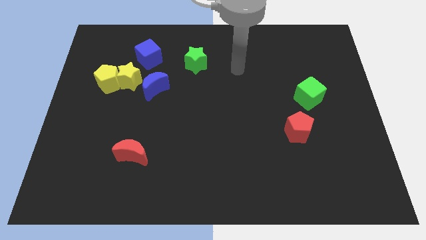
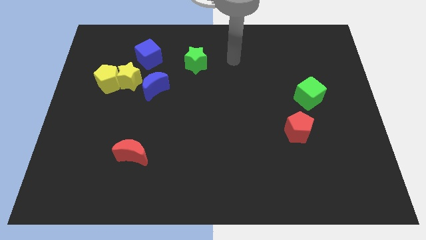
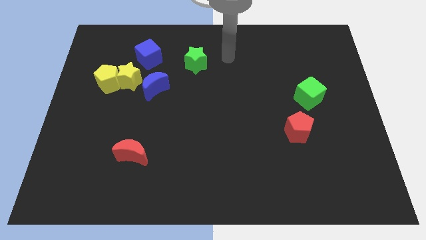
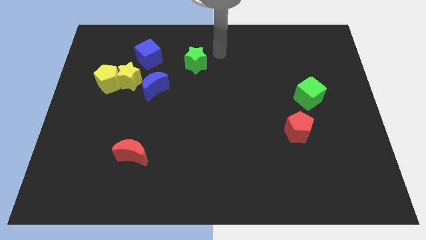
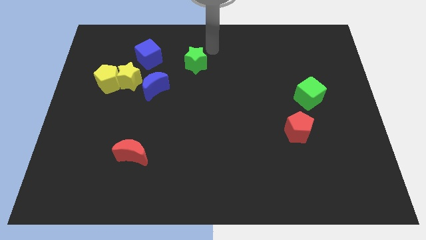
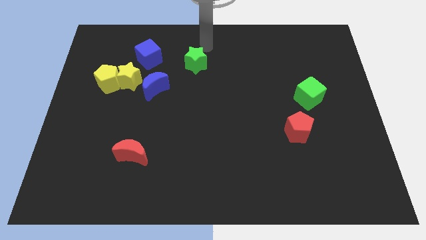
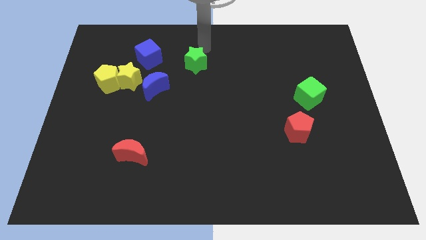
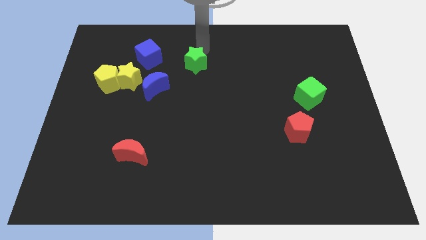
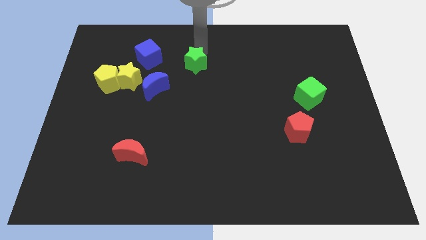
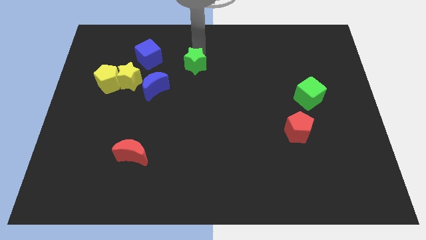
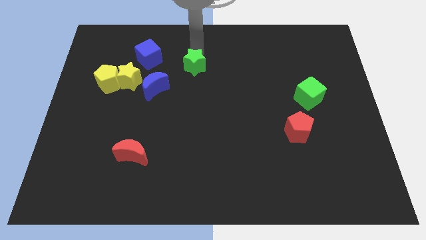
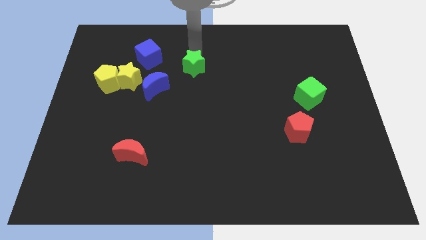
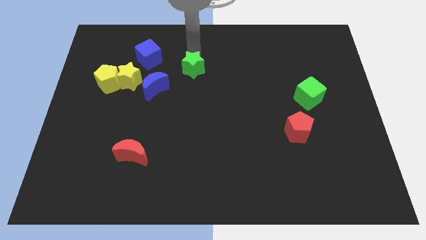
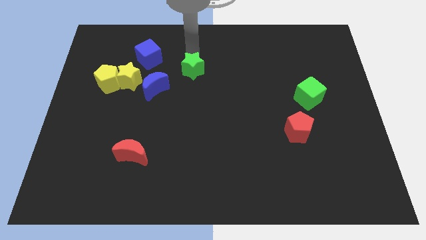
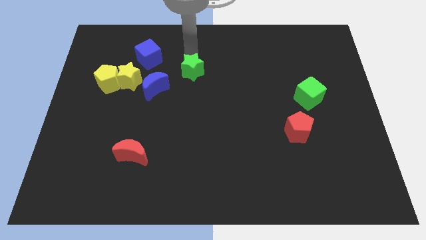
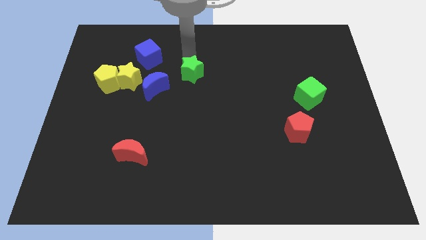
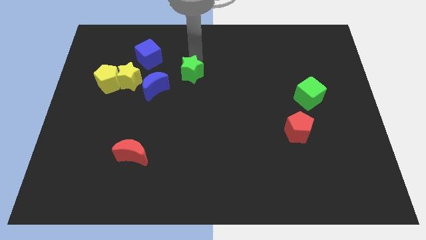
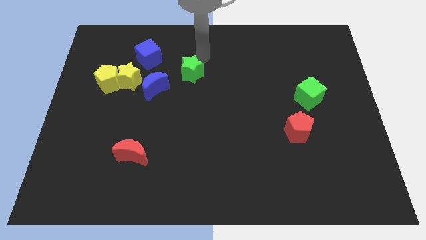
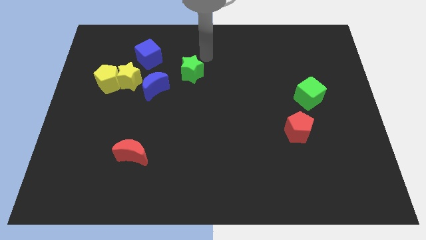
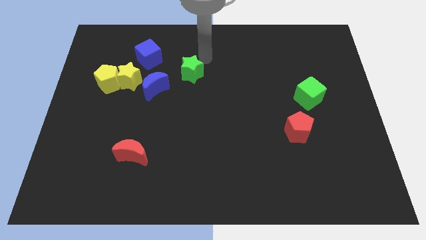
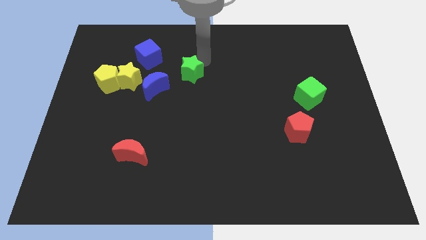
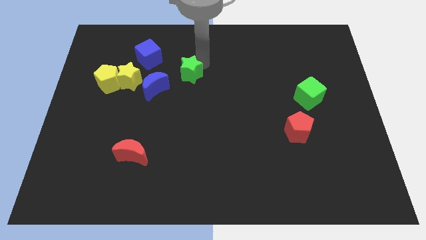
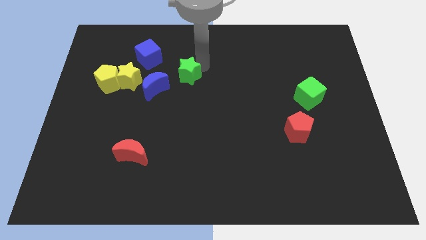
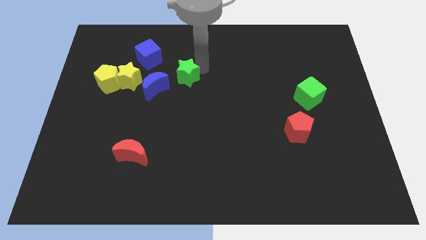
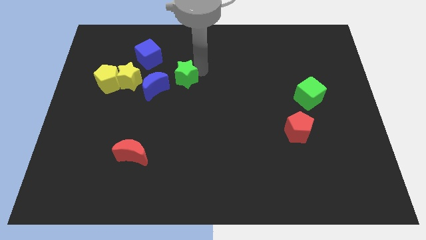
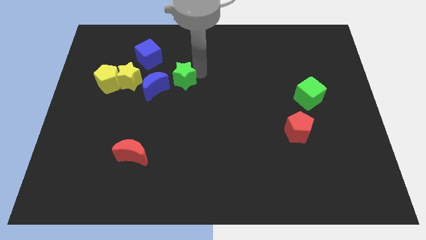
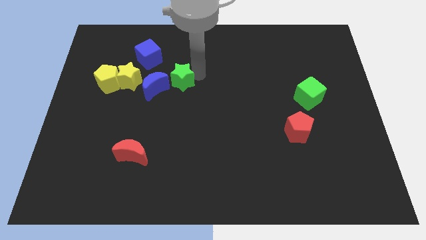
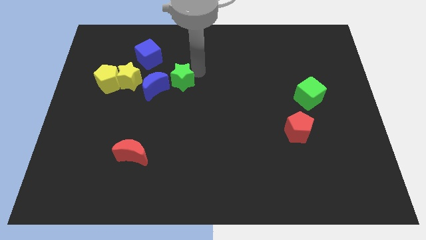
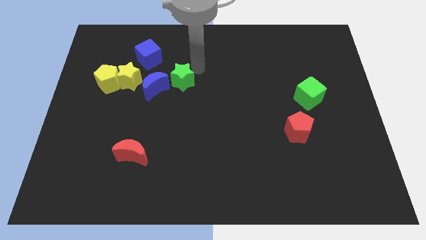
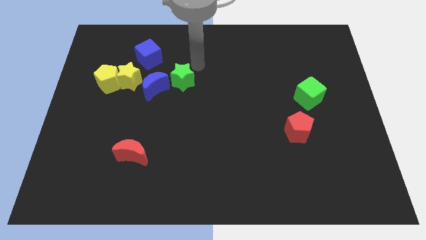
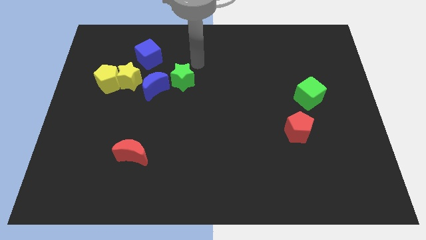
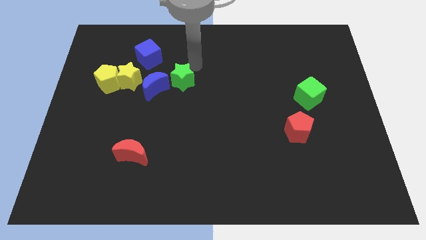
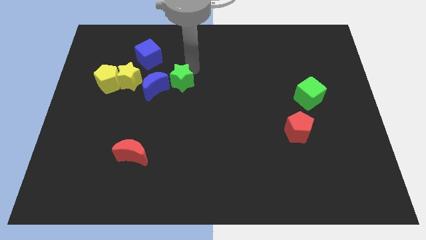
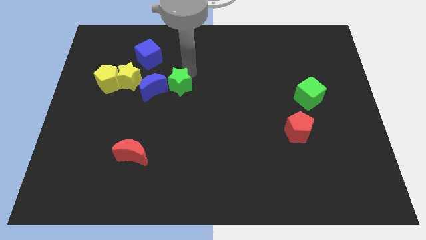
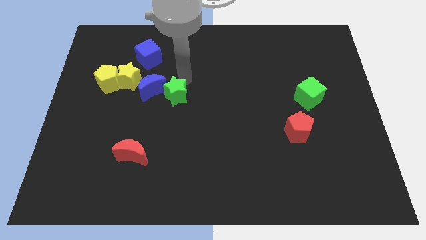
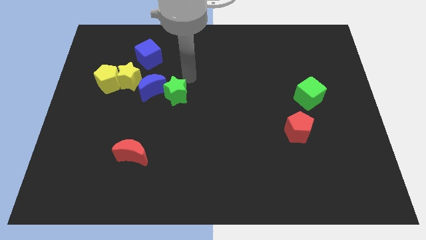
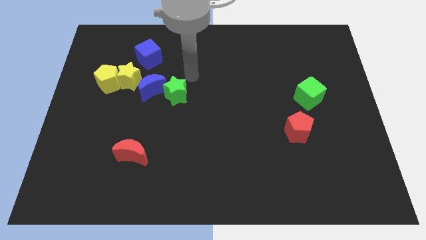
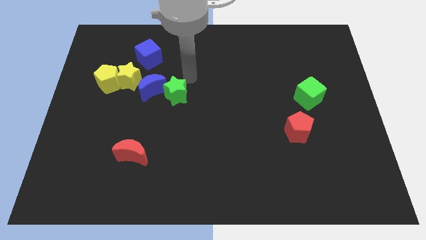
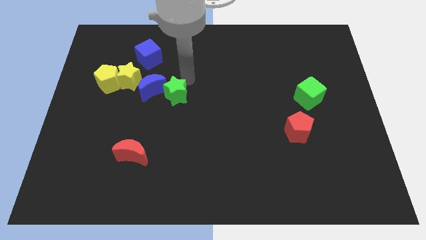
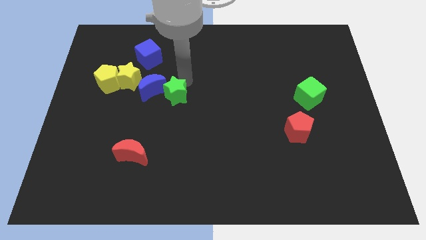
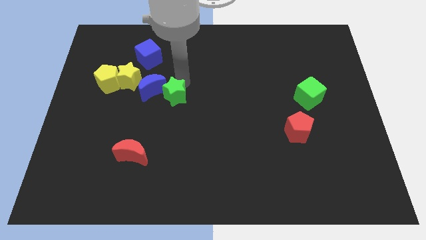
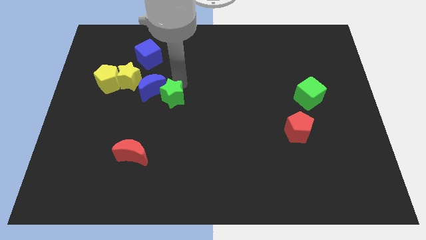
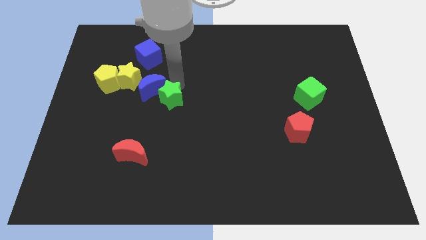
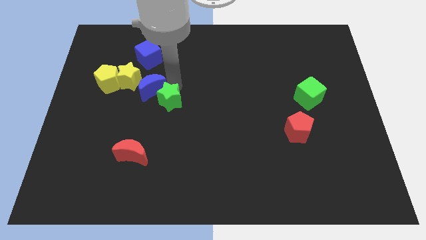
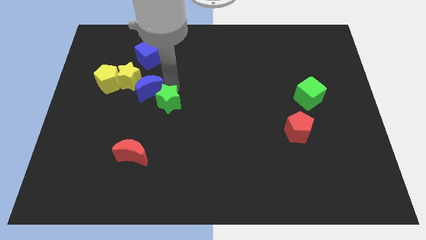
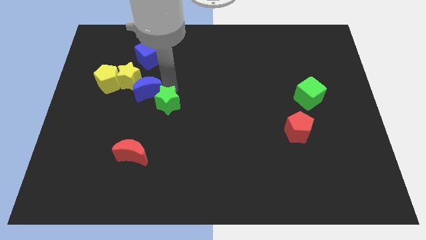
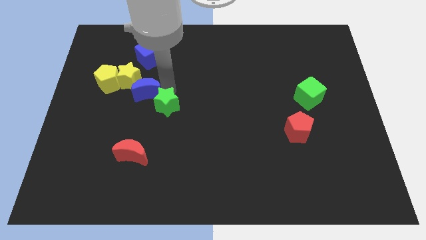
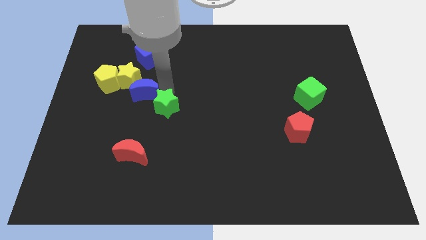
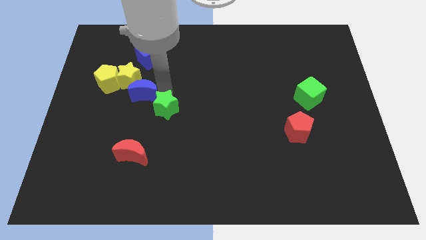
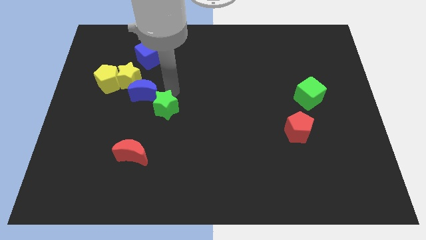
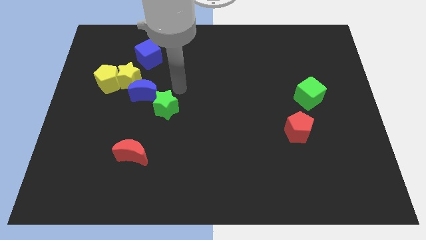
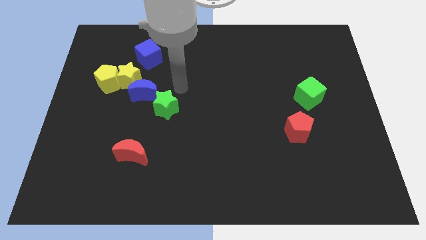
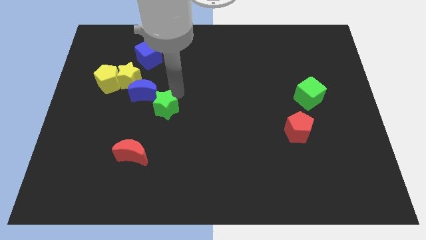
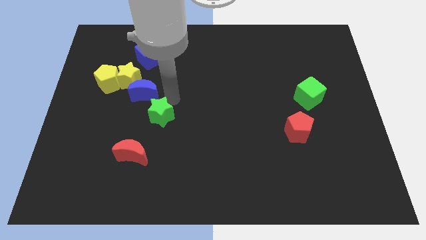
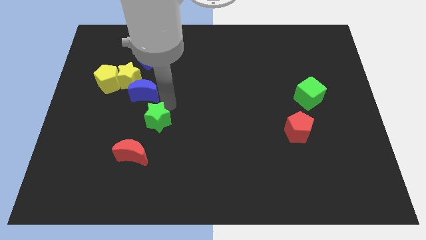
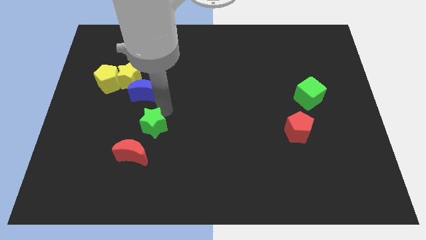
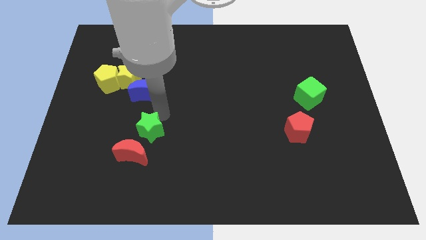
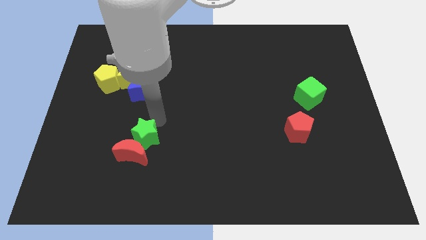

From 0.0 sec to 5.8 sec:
put the green star close to the red moon

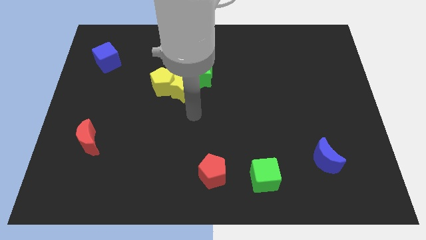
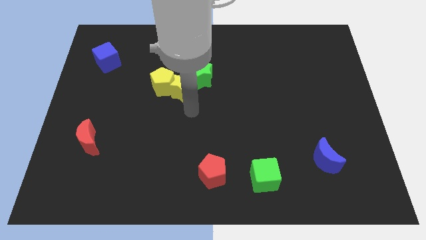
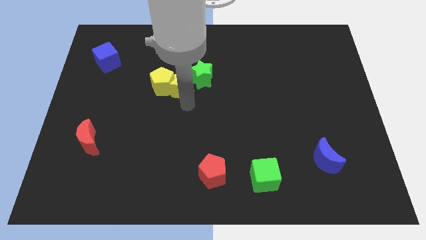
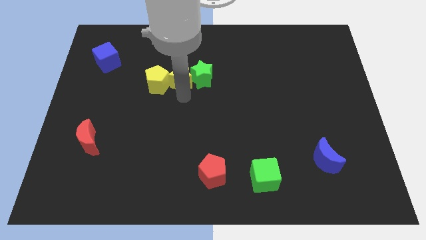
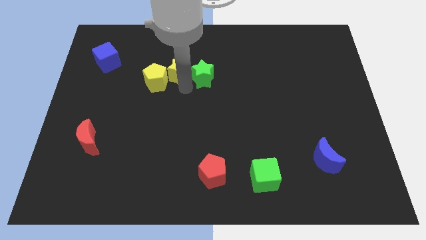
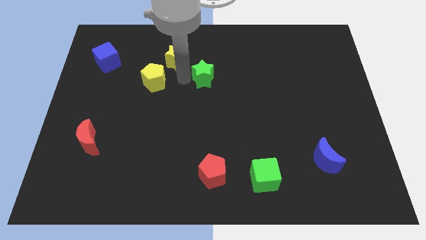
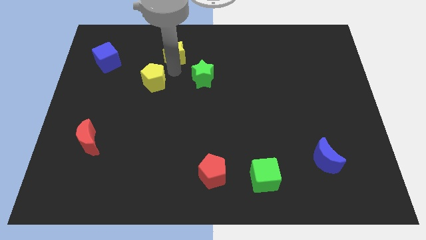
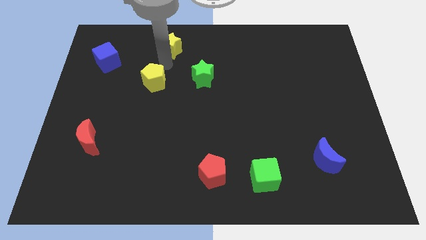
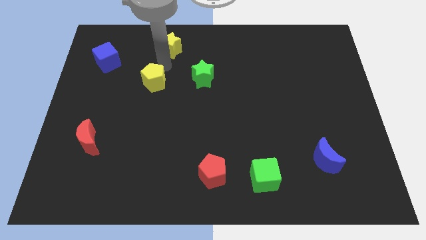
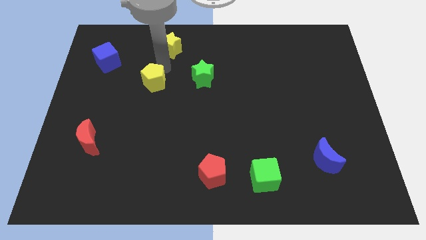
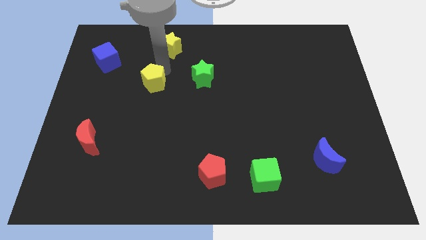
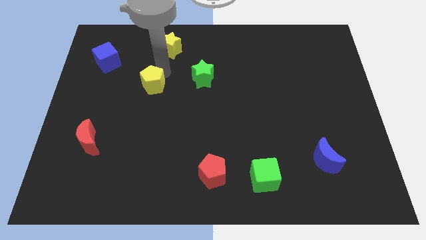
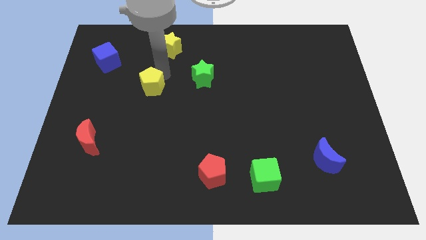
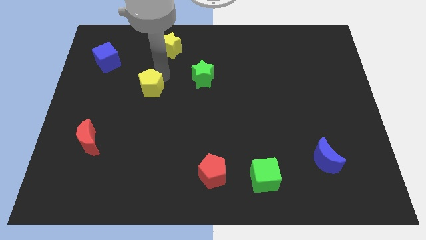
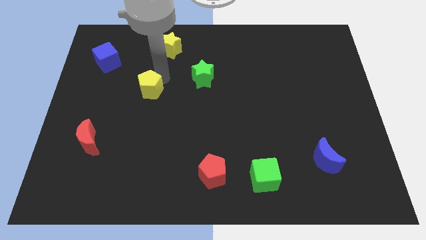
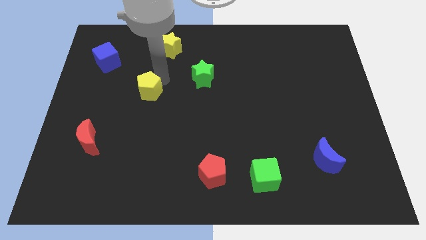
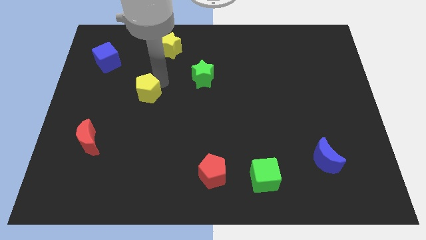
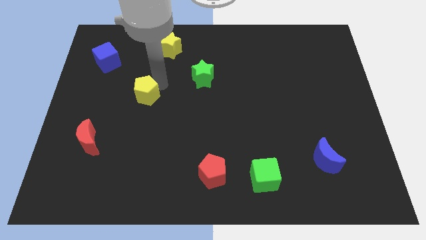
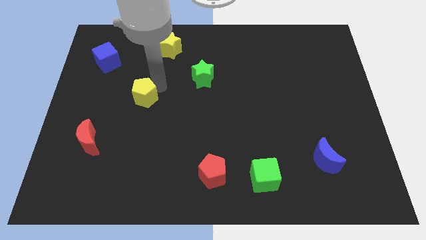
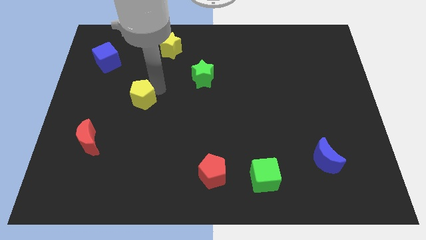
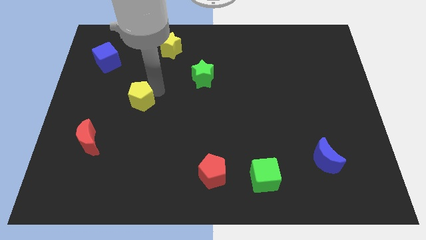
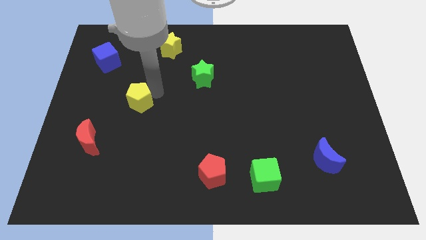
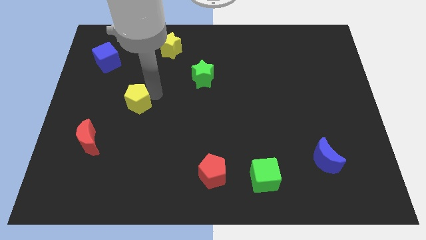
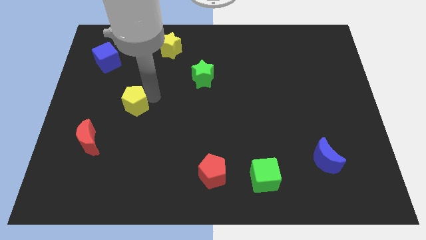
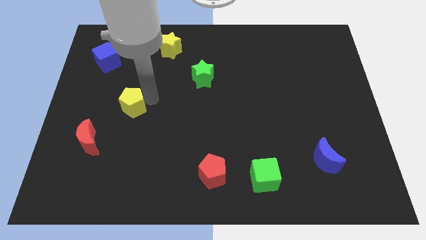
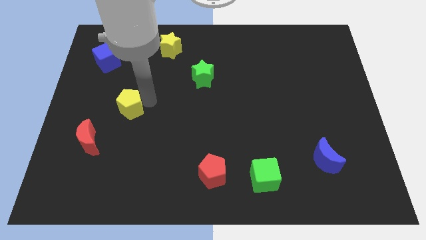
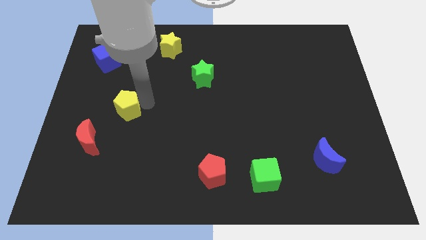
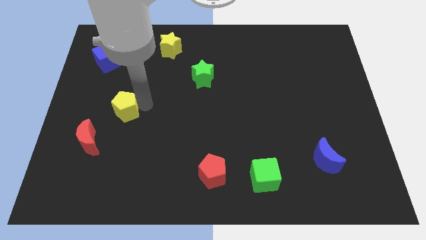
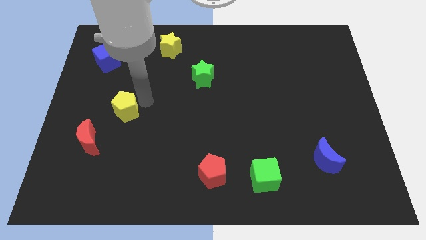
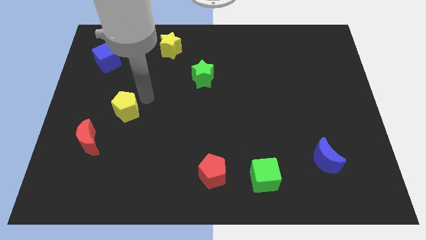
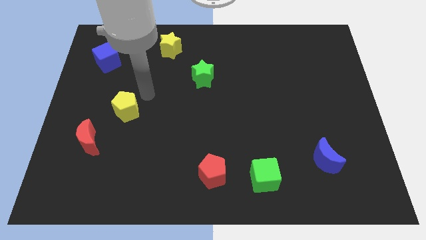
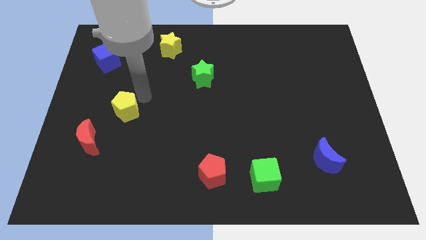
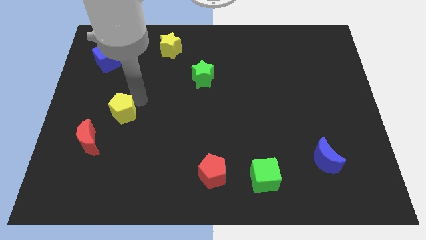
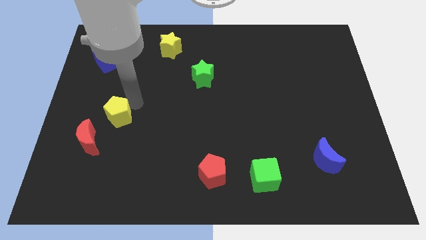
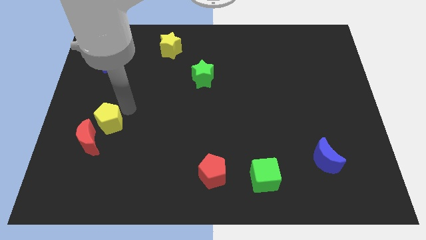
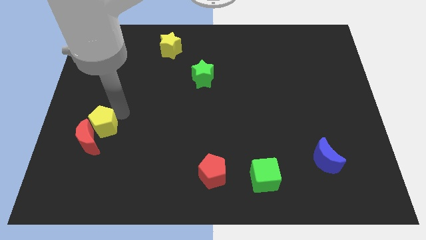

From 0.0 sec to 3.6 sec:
put the yellow pentagon next to the red moon
